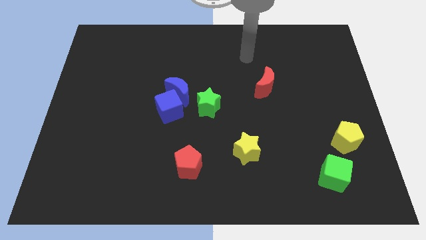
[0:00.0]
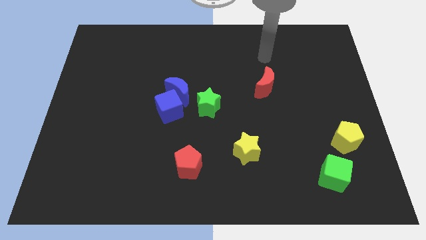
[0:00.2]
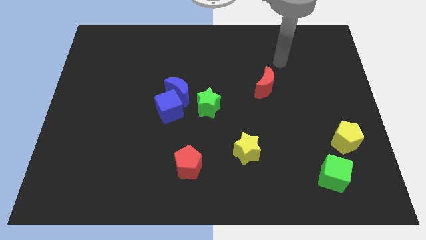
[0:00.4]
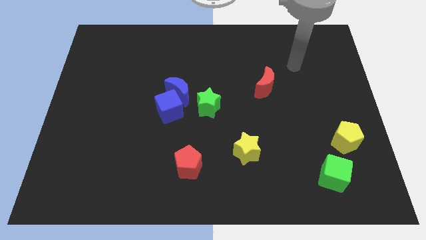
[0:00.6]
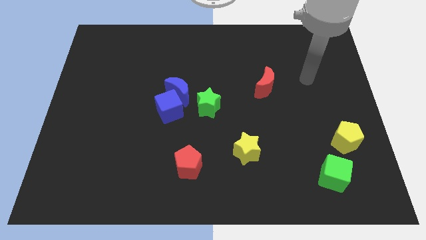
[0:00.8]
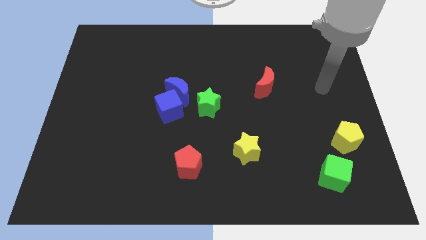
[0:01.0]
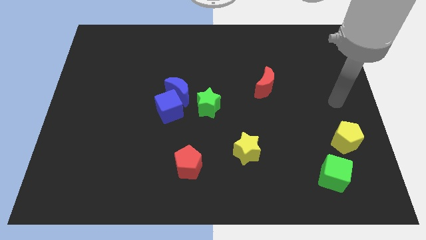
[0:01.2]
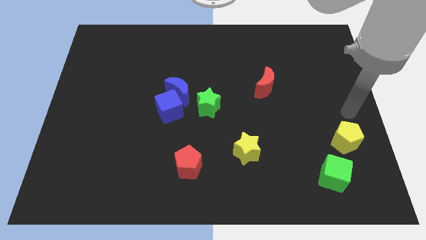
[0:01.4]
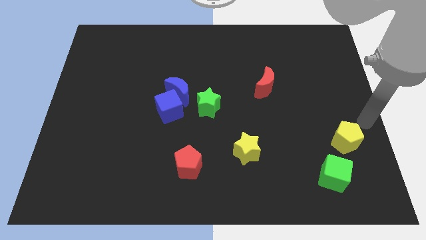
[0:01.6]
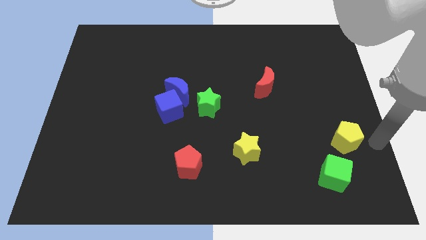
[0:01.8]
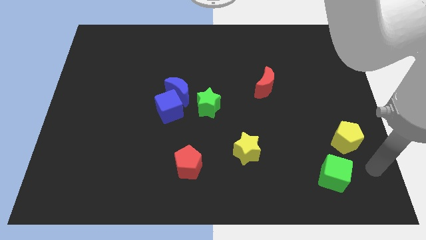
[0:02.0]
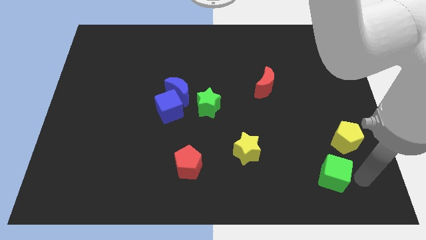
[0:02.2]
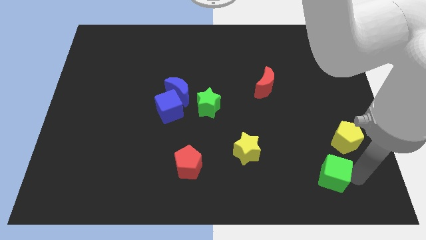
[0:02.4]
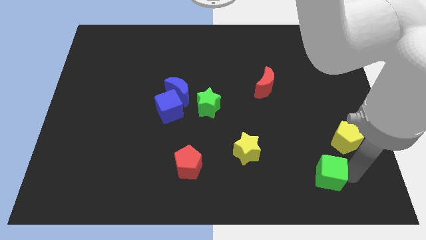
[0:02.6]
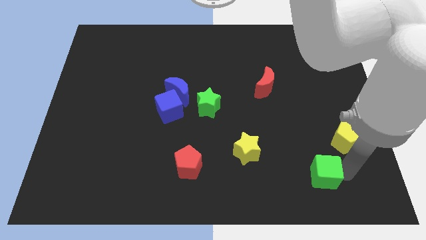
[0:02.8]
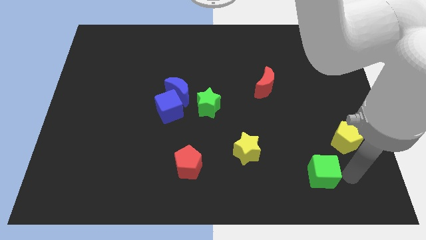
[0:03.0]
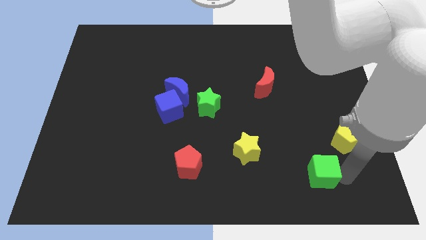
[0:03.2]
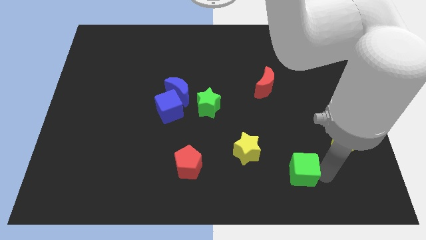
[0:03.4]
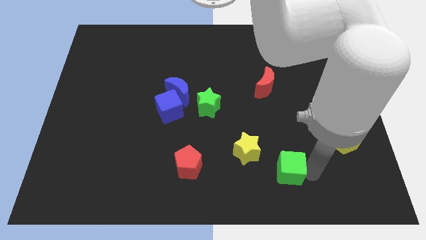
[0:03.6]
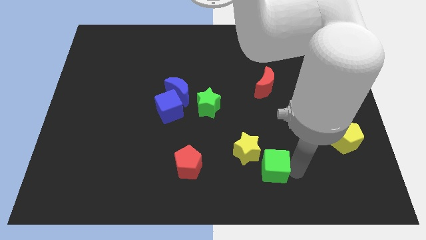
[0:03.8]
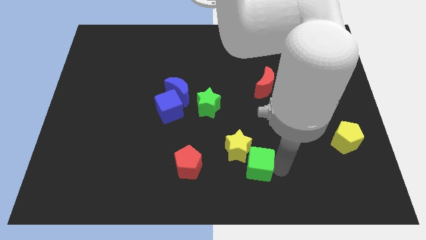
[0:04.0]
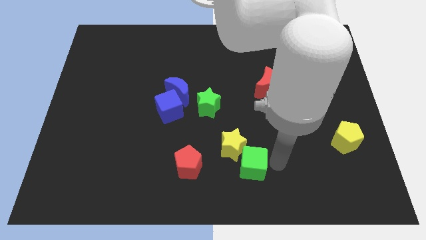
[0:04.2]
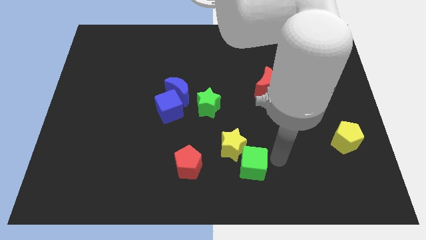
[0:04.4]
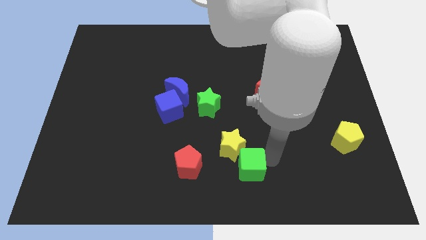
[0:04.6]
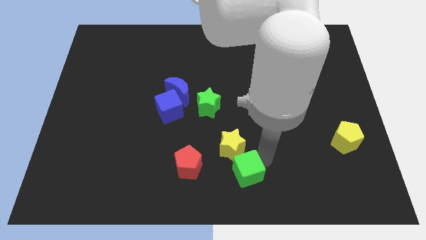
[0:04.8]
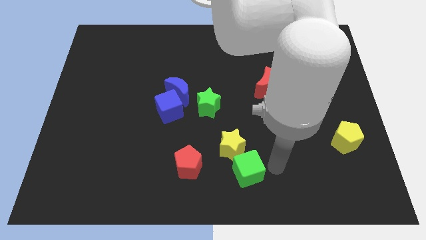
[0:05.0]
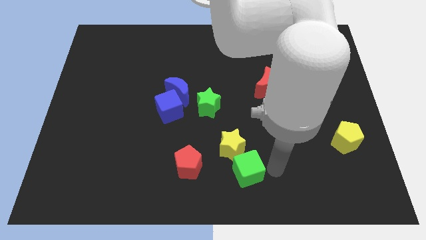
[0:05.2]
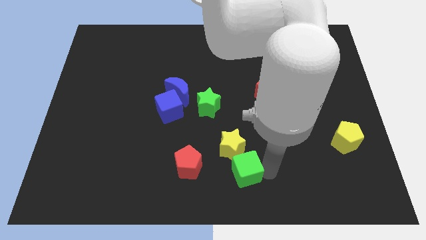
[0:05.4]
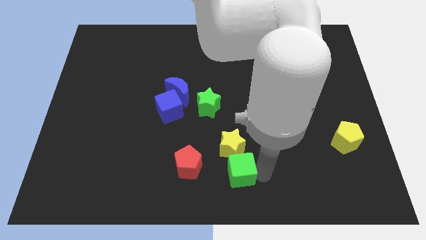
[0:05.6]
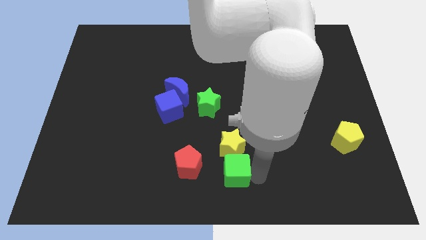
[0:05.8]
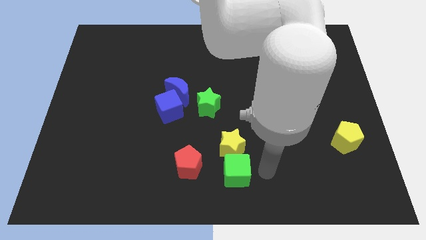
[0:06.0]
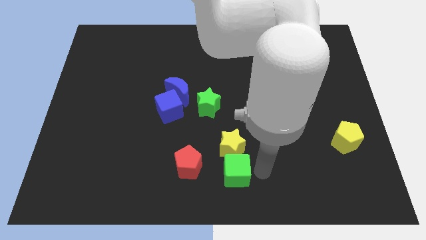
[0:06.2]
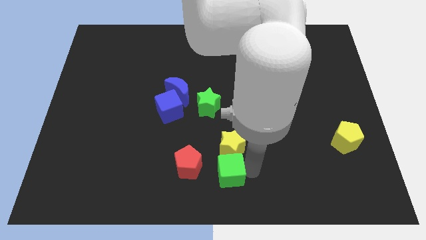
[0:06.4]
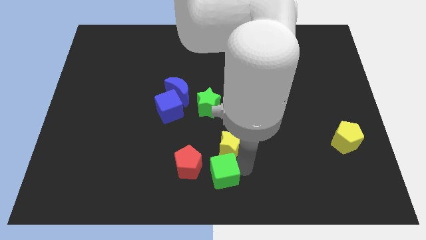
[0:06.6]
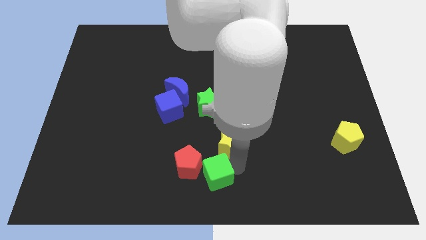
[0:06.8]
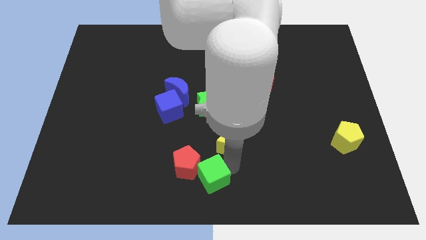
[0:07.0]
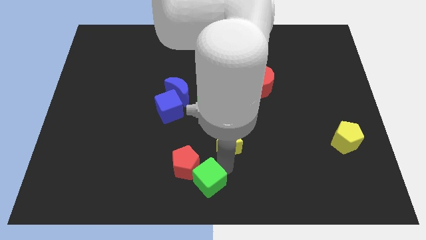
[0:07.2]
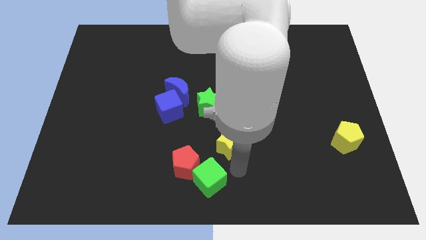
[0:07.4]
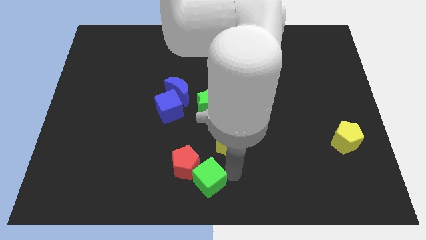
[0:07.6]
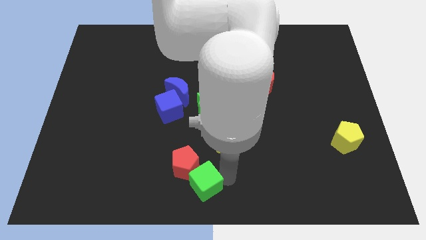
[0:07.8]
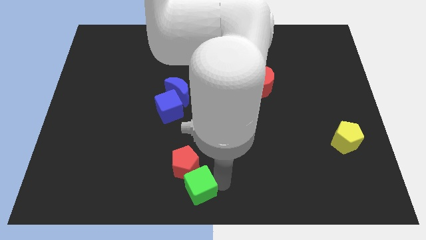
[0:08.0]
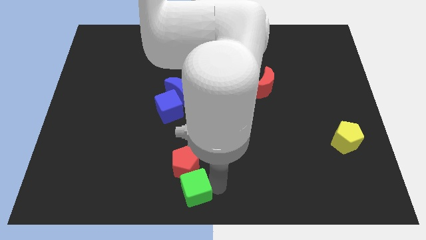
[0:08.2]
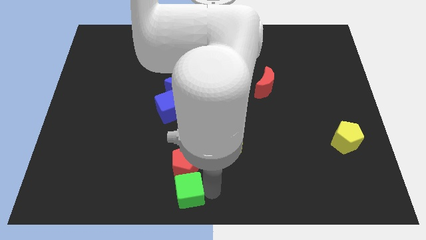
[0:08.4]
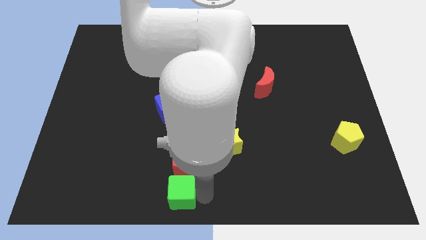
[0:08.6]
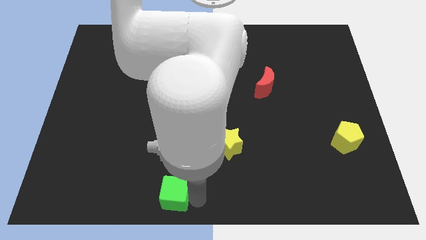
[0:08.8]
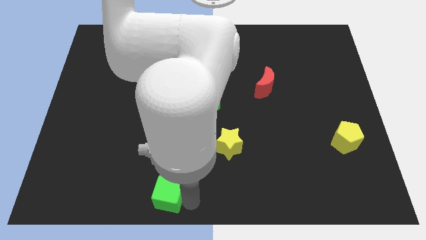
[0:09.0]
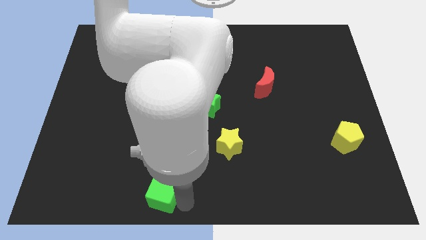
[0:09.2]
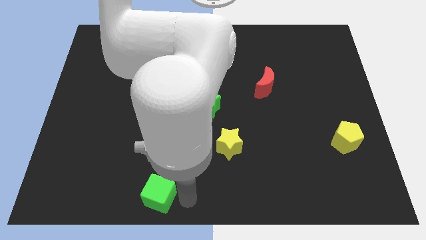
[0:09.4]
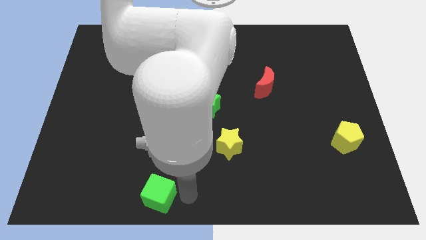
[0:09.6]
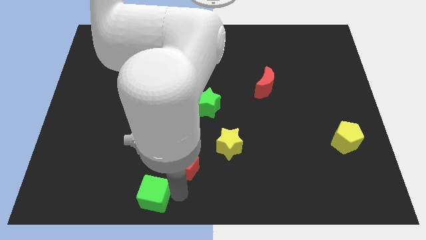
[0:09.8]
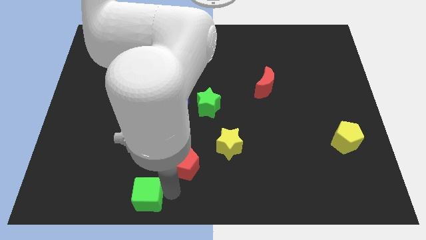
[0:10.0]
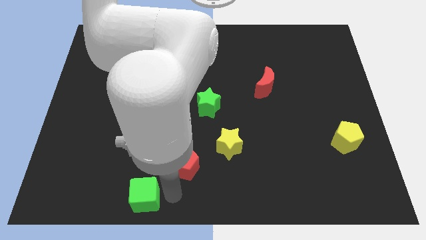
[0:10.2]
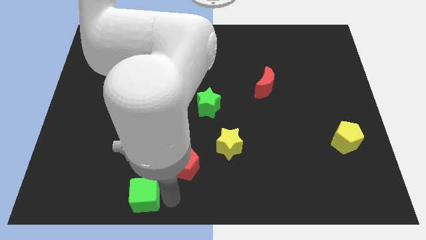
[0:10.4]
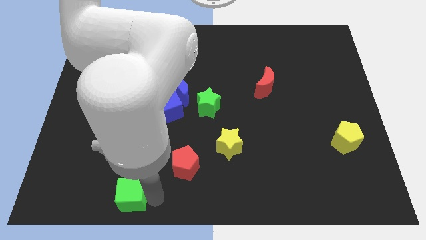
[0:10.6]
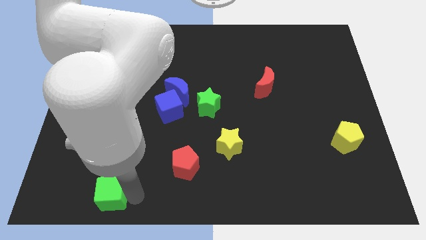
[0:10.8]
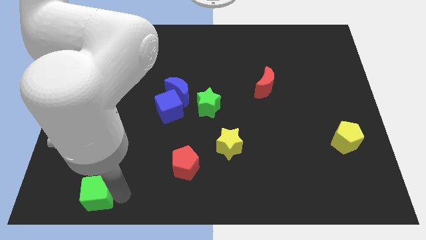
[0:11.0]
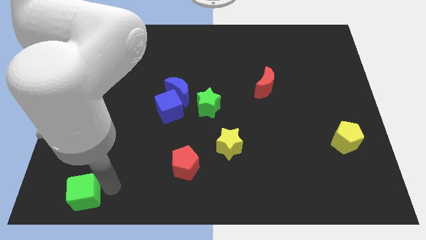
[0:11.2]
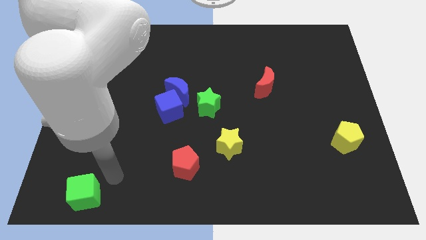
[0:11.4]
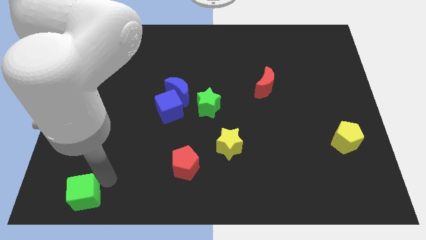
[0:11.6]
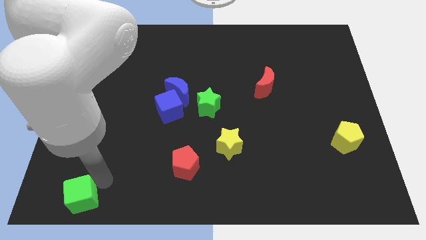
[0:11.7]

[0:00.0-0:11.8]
push the green cube to the lower left corner

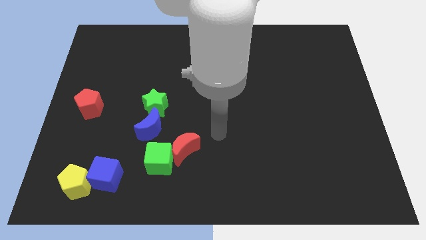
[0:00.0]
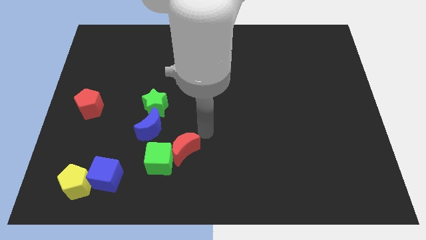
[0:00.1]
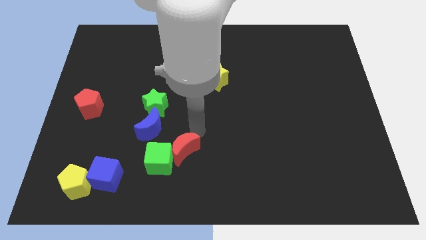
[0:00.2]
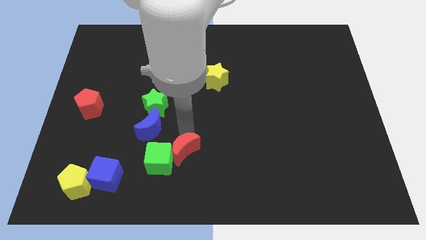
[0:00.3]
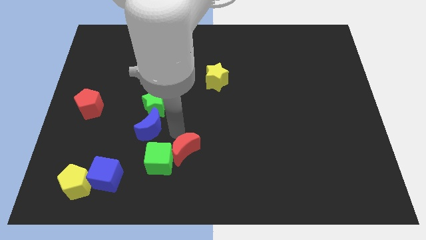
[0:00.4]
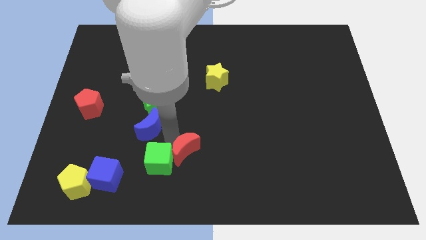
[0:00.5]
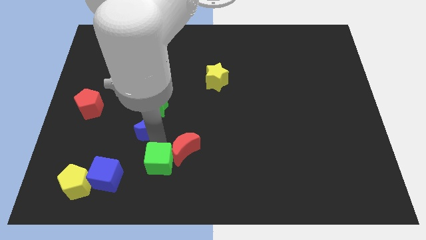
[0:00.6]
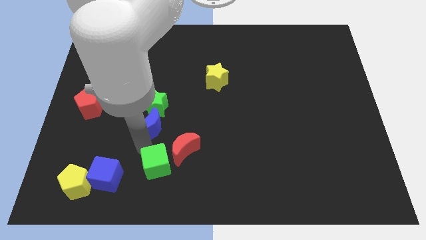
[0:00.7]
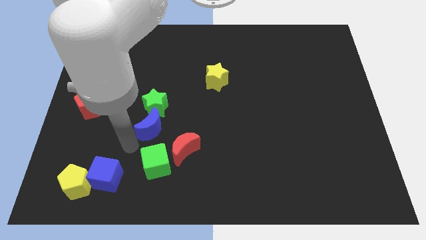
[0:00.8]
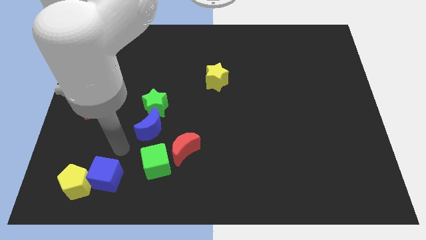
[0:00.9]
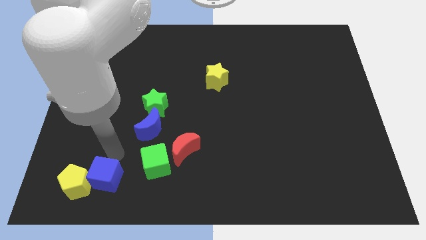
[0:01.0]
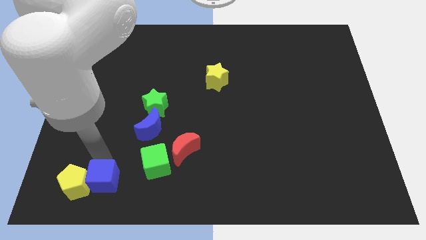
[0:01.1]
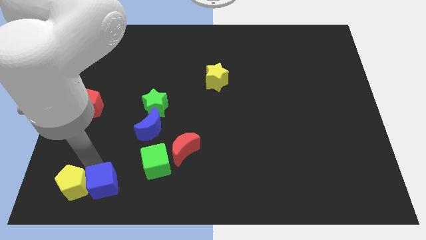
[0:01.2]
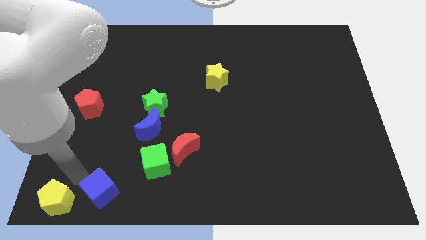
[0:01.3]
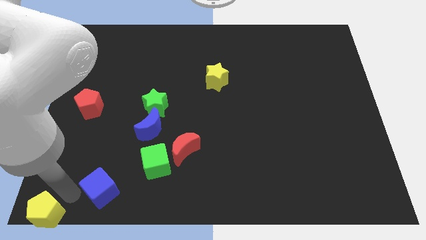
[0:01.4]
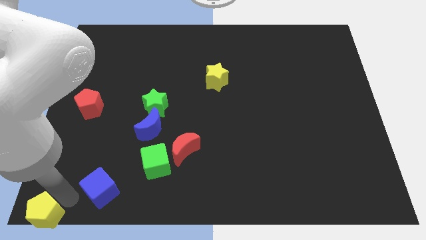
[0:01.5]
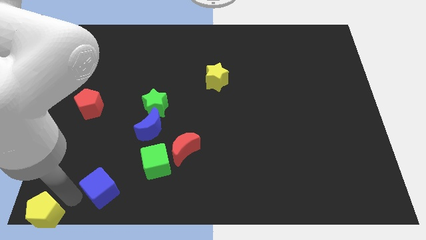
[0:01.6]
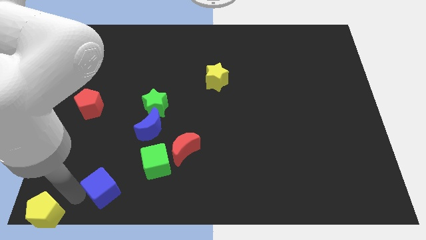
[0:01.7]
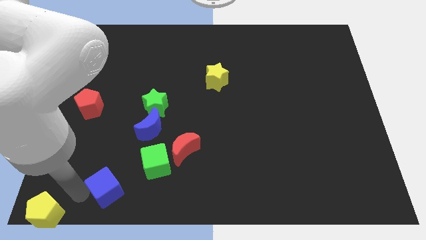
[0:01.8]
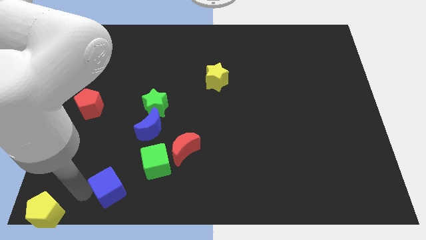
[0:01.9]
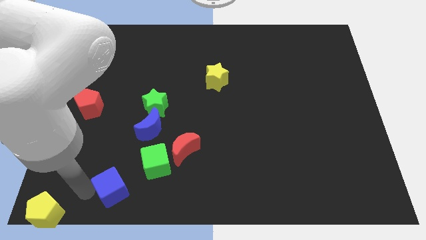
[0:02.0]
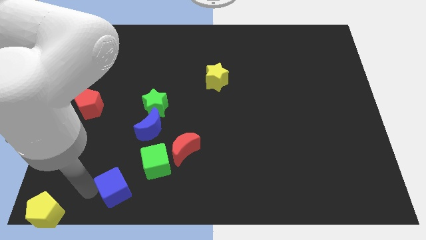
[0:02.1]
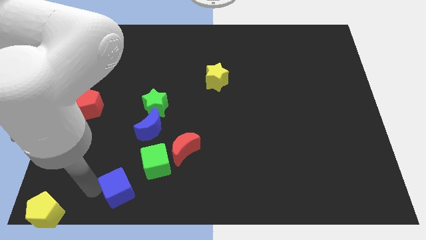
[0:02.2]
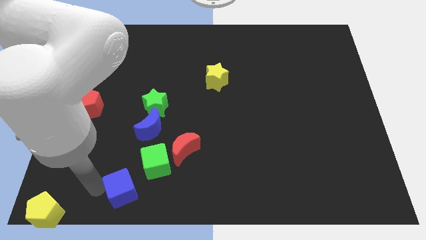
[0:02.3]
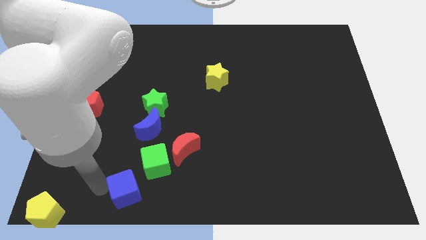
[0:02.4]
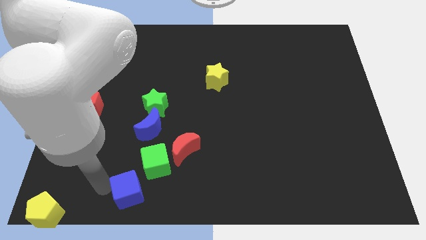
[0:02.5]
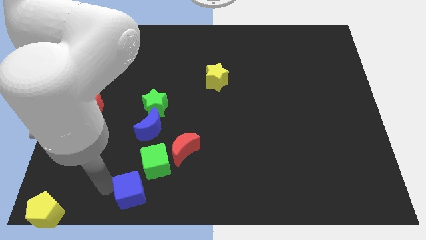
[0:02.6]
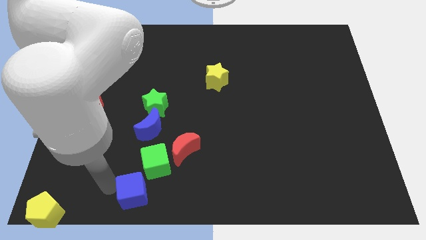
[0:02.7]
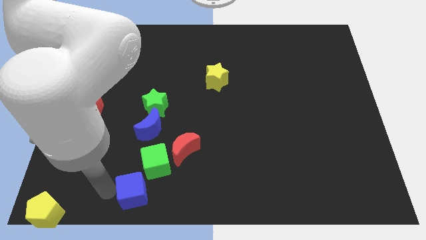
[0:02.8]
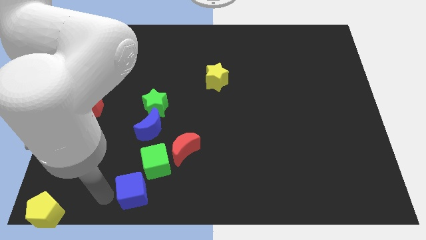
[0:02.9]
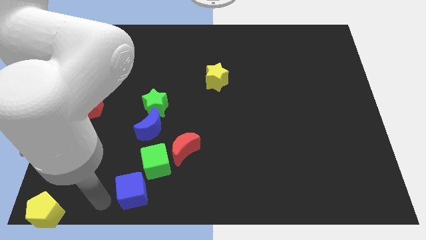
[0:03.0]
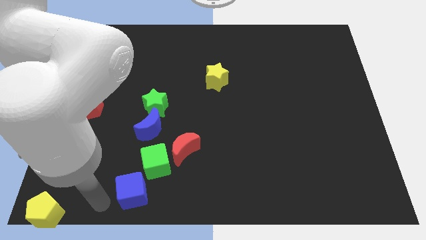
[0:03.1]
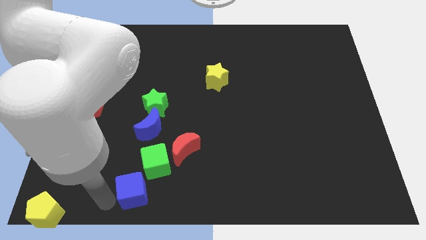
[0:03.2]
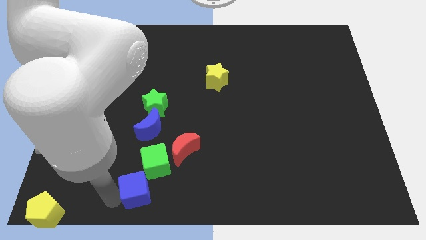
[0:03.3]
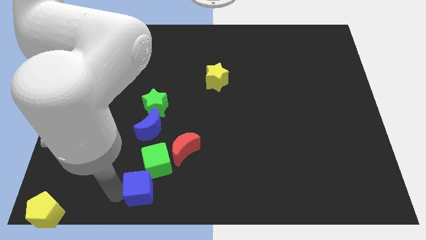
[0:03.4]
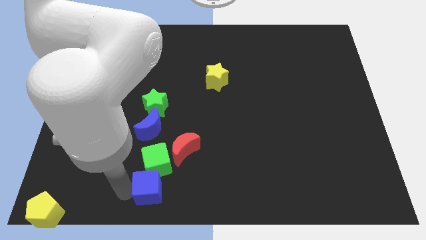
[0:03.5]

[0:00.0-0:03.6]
push the blue cube to the bottom side
